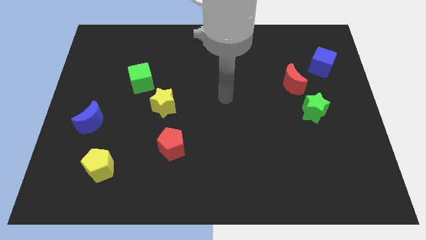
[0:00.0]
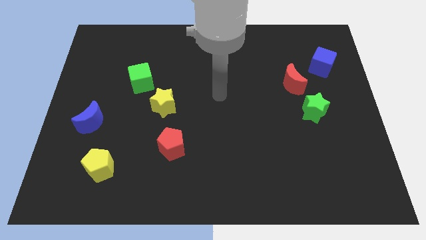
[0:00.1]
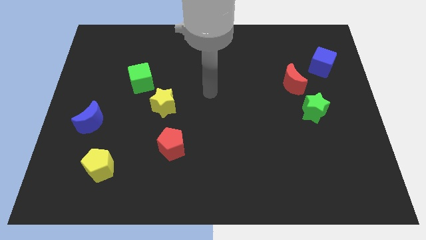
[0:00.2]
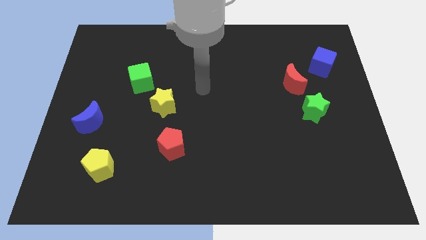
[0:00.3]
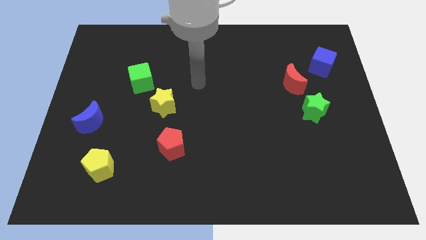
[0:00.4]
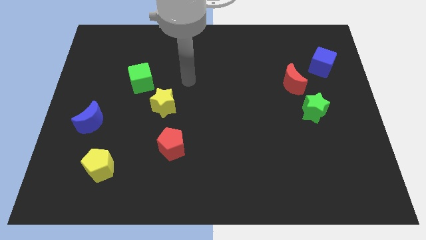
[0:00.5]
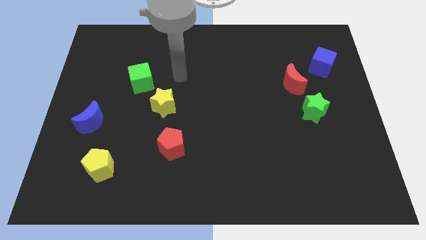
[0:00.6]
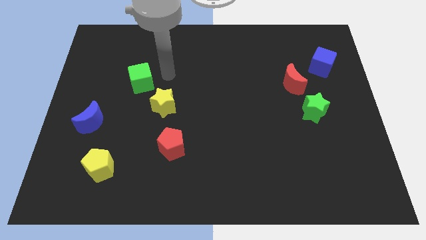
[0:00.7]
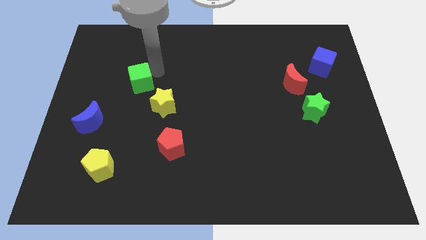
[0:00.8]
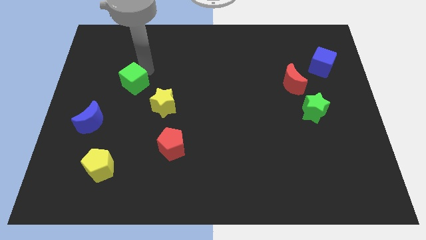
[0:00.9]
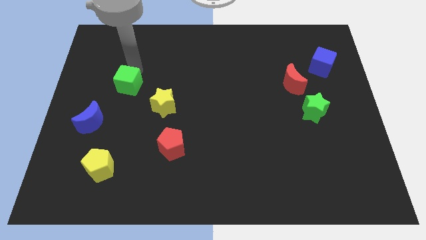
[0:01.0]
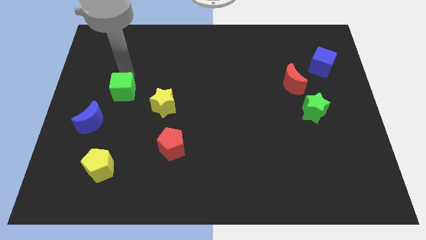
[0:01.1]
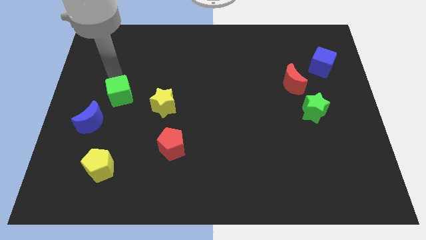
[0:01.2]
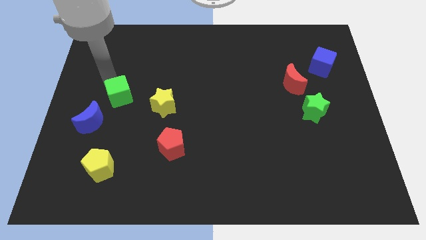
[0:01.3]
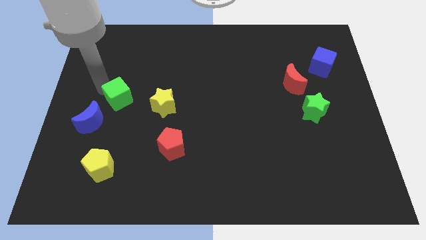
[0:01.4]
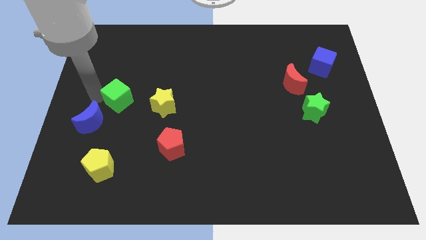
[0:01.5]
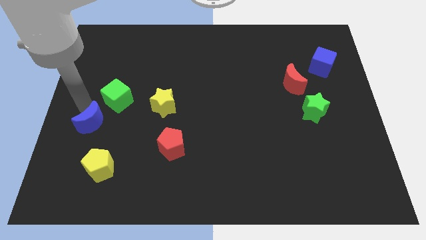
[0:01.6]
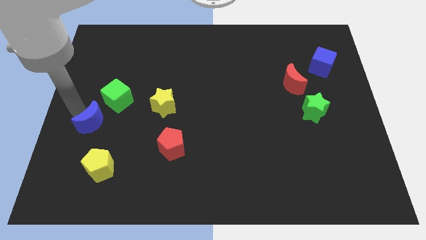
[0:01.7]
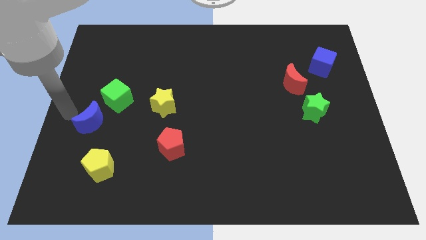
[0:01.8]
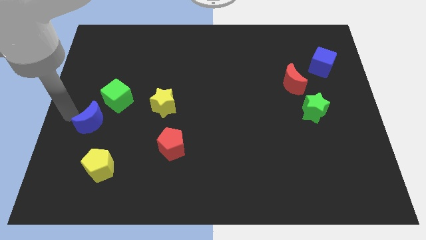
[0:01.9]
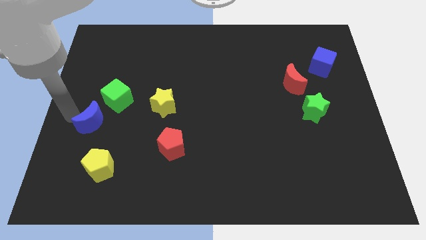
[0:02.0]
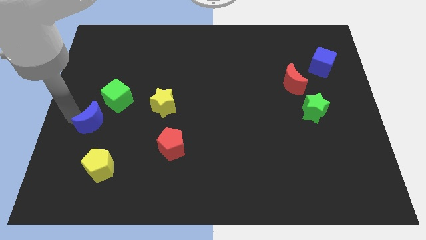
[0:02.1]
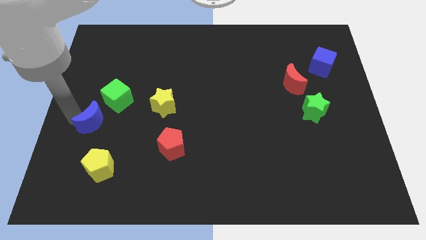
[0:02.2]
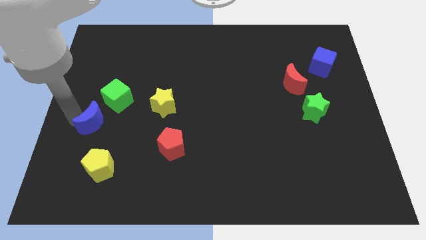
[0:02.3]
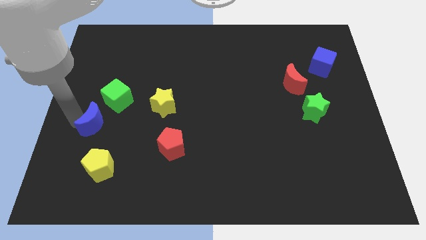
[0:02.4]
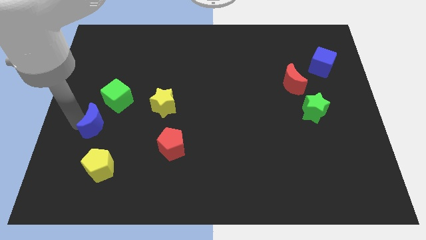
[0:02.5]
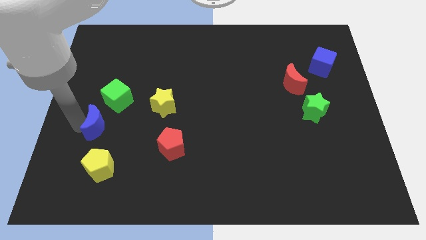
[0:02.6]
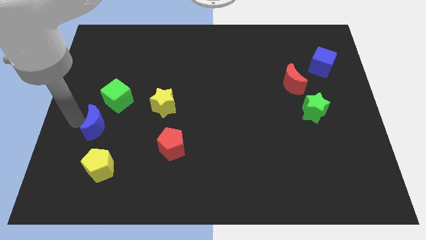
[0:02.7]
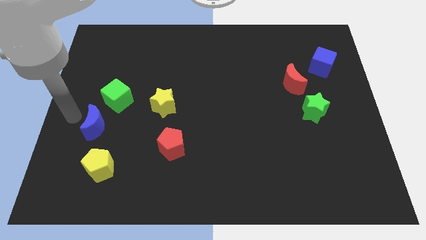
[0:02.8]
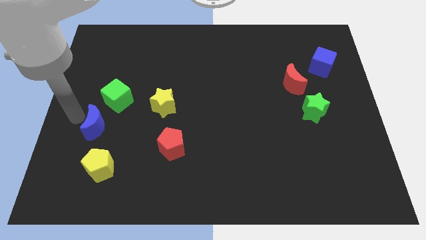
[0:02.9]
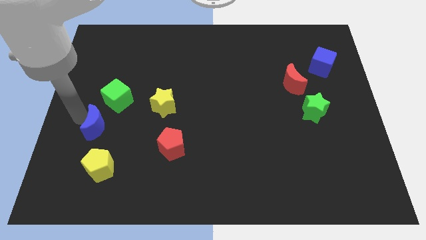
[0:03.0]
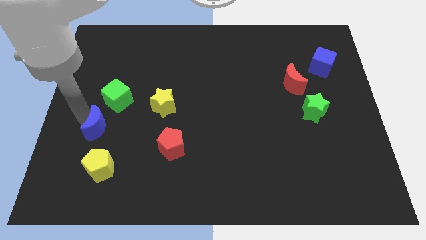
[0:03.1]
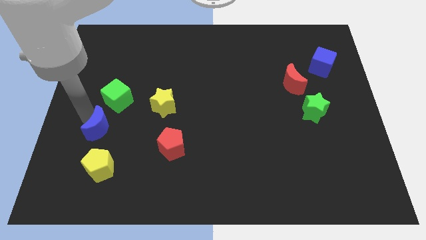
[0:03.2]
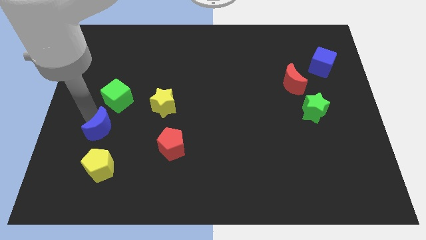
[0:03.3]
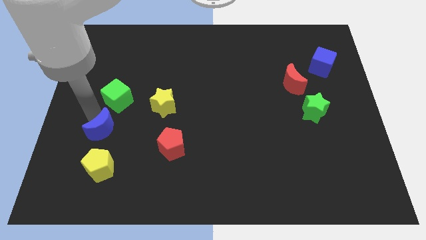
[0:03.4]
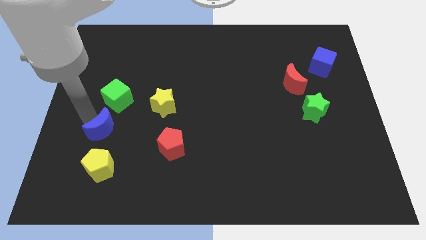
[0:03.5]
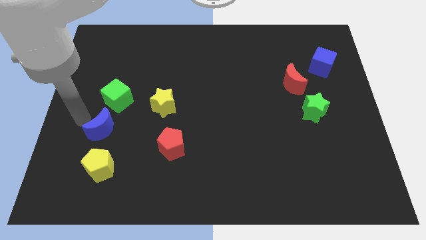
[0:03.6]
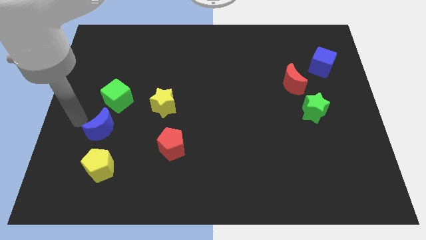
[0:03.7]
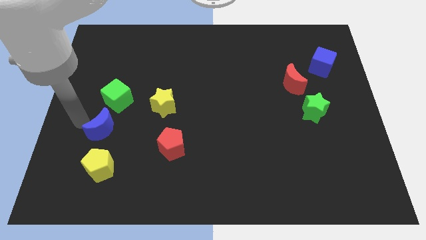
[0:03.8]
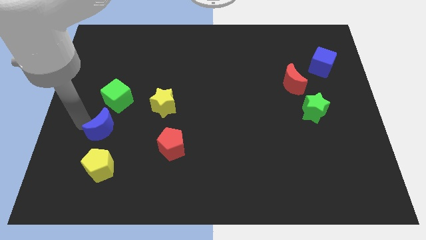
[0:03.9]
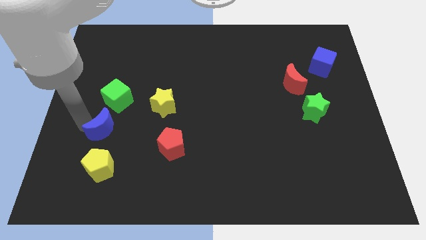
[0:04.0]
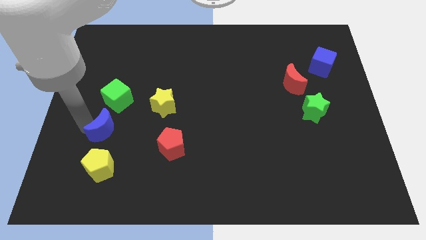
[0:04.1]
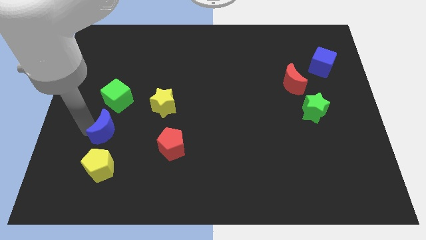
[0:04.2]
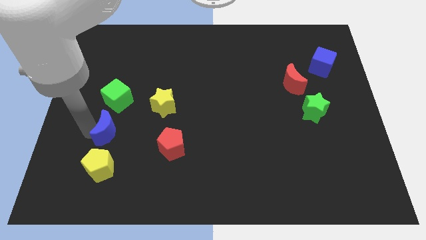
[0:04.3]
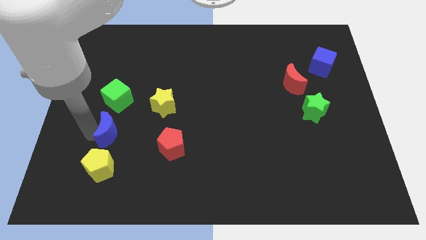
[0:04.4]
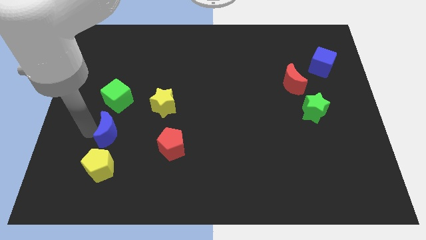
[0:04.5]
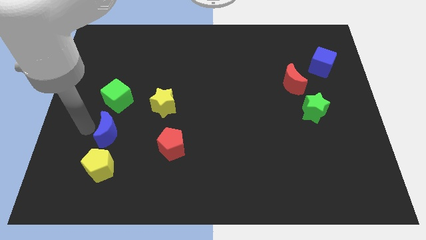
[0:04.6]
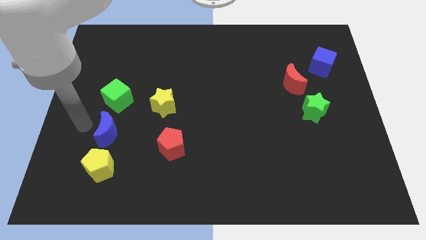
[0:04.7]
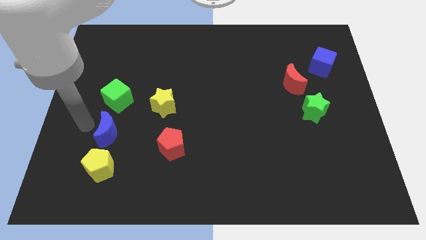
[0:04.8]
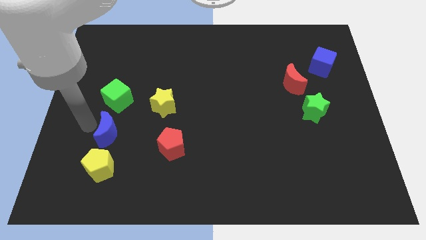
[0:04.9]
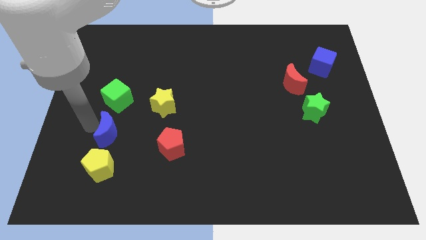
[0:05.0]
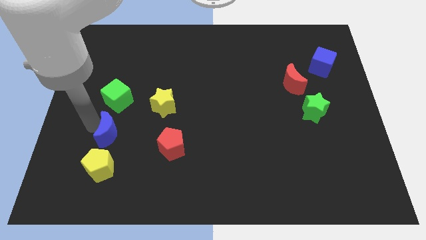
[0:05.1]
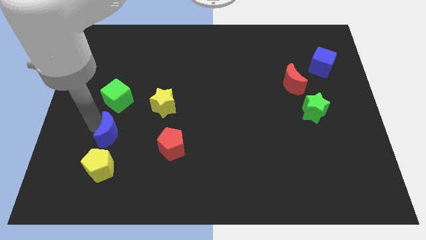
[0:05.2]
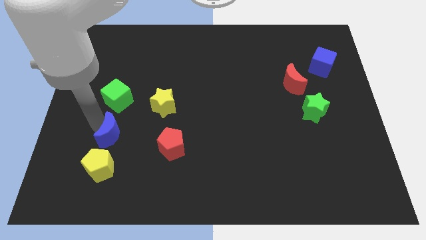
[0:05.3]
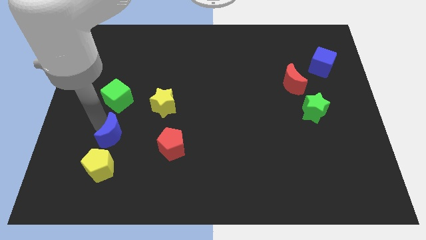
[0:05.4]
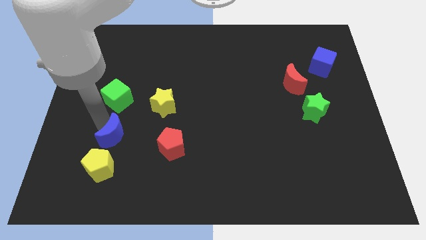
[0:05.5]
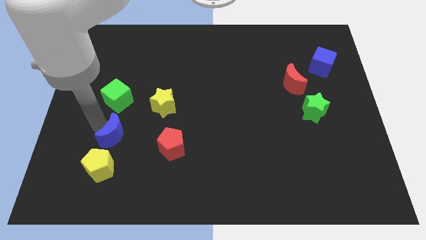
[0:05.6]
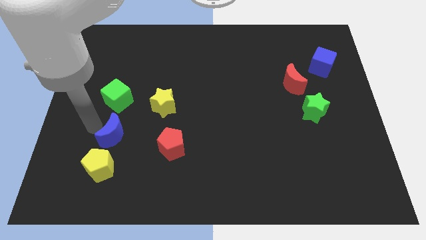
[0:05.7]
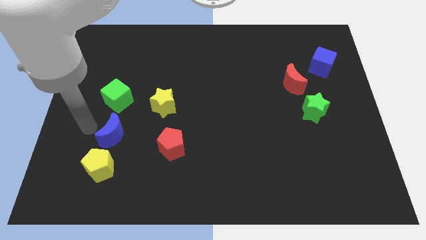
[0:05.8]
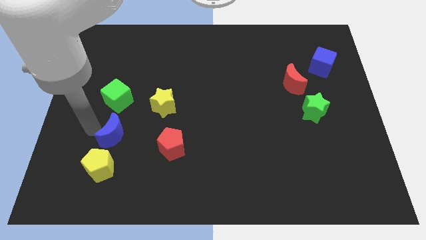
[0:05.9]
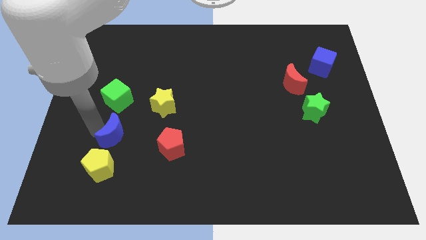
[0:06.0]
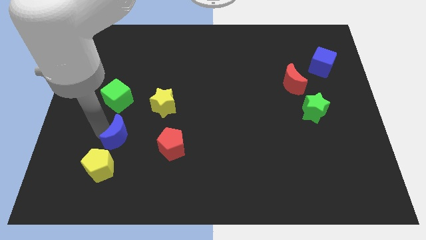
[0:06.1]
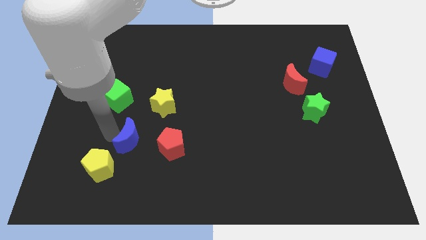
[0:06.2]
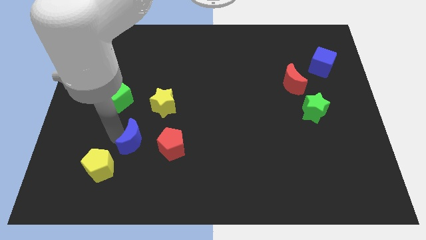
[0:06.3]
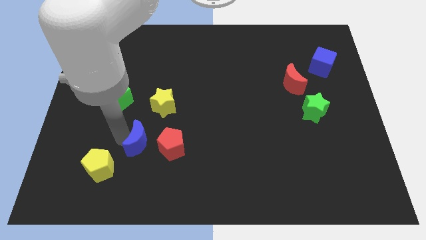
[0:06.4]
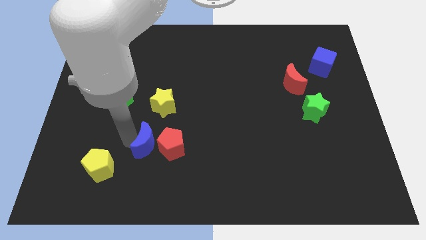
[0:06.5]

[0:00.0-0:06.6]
push the blue moon next to the red pentagon

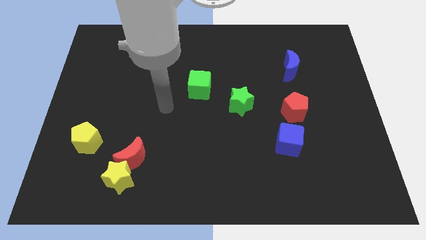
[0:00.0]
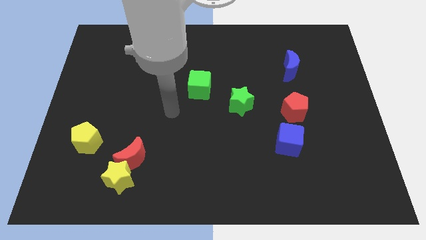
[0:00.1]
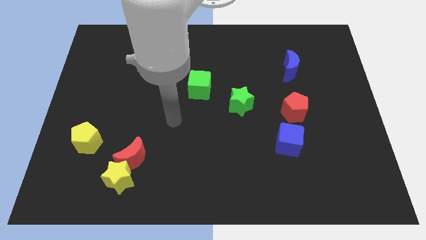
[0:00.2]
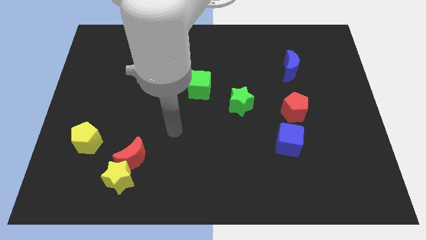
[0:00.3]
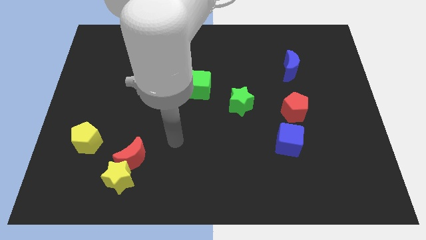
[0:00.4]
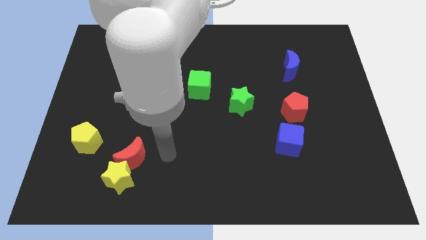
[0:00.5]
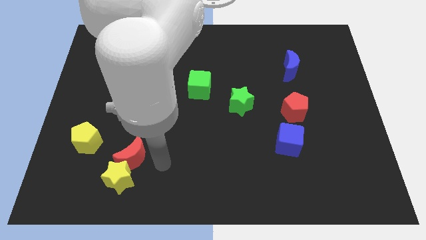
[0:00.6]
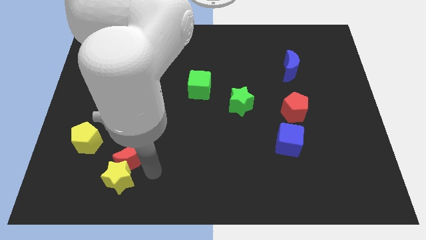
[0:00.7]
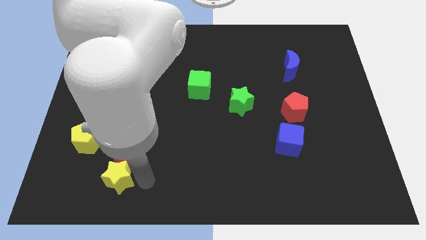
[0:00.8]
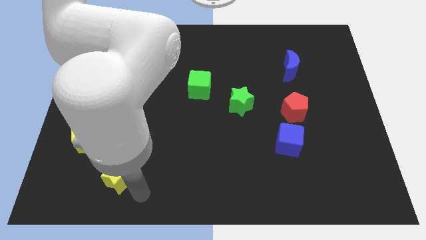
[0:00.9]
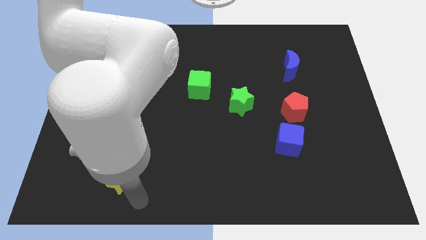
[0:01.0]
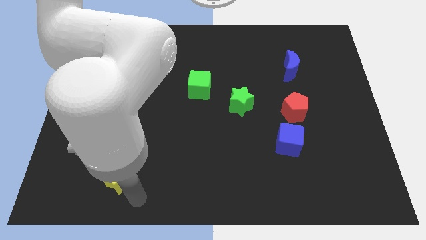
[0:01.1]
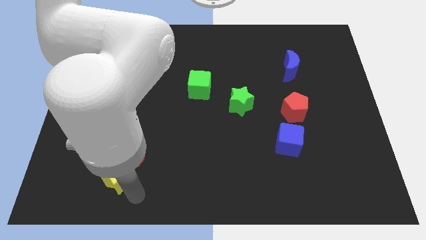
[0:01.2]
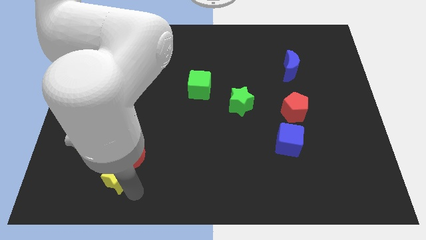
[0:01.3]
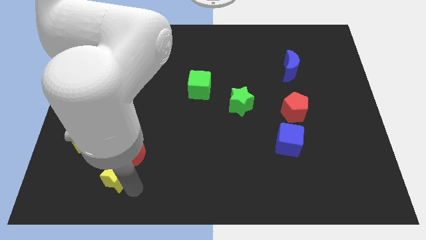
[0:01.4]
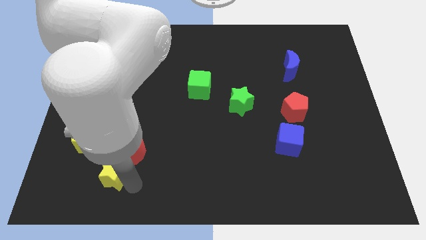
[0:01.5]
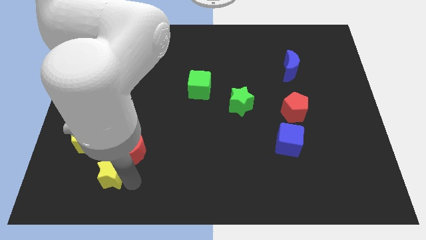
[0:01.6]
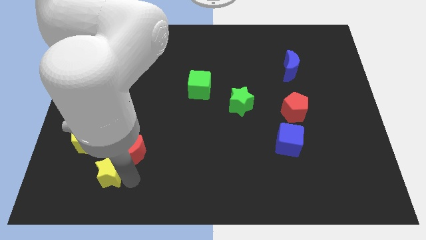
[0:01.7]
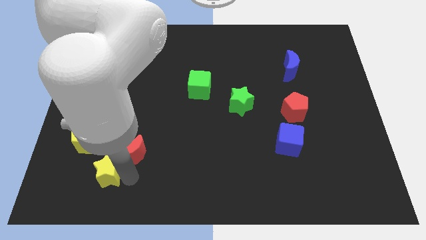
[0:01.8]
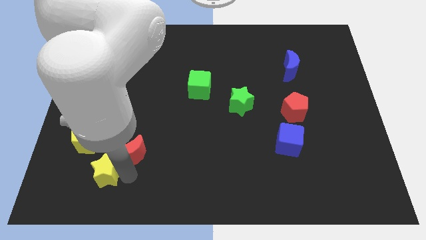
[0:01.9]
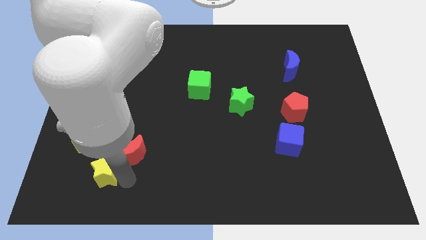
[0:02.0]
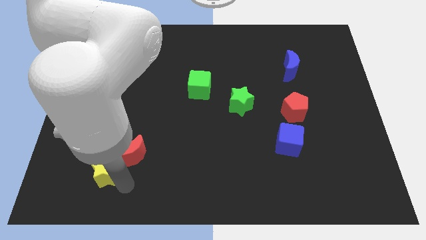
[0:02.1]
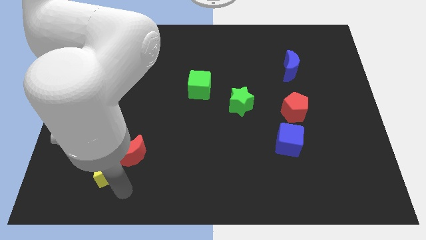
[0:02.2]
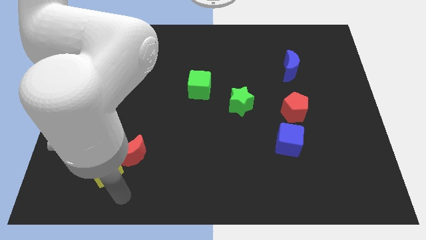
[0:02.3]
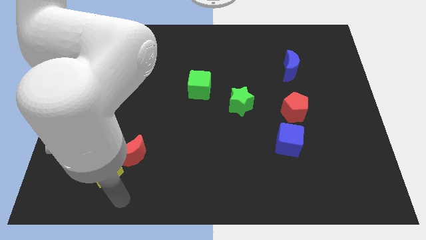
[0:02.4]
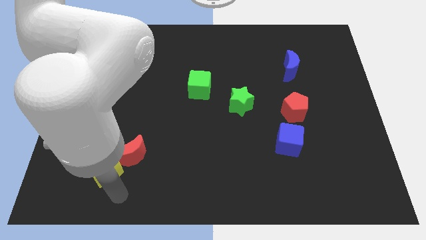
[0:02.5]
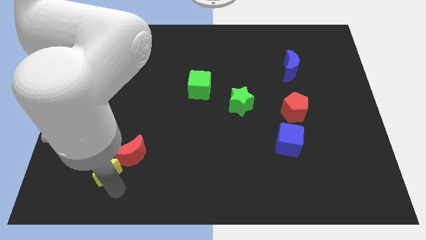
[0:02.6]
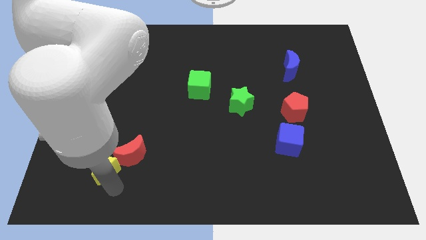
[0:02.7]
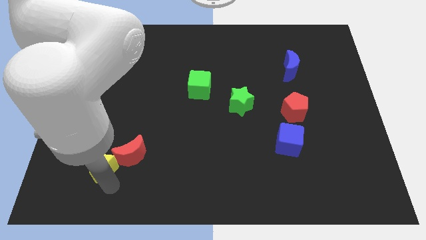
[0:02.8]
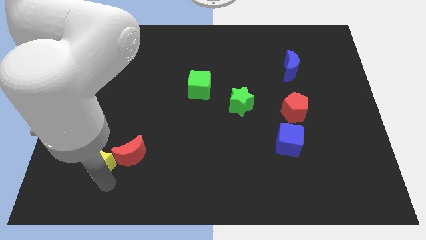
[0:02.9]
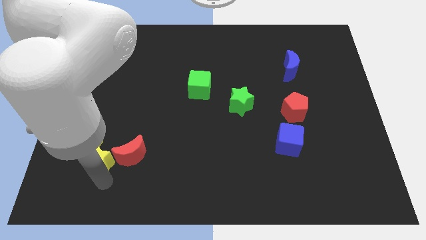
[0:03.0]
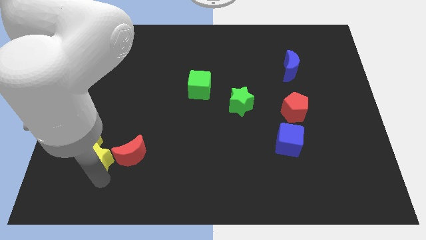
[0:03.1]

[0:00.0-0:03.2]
put the yellow star to the yellow pentagon
